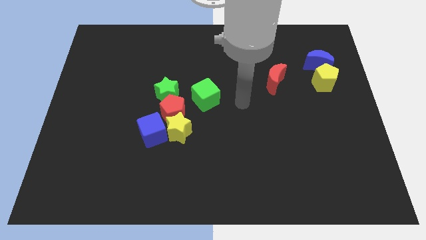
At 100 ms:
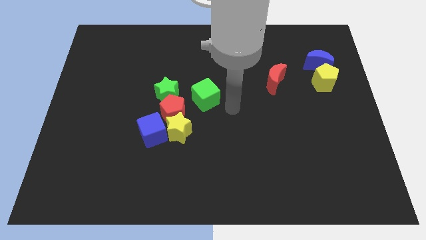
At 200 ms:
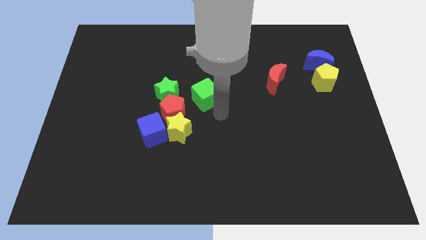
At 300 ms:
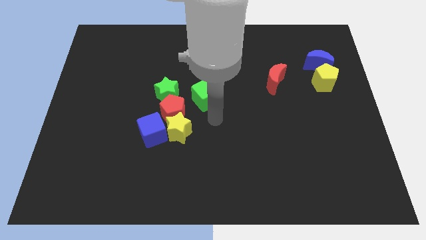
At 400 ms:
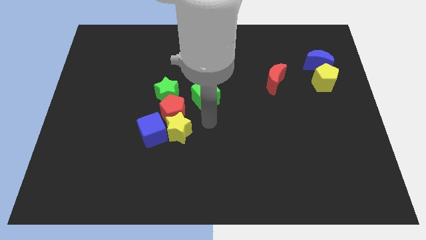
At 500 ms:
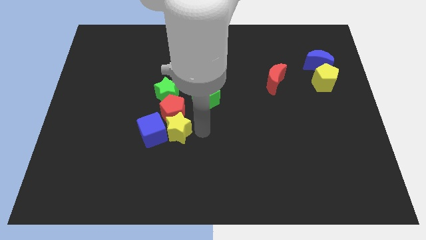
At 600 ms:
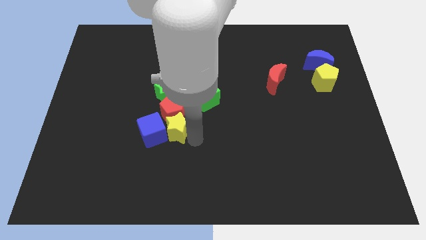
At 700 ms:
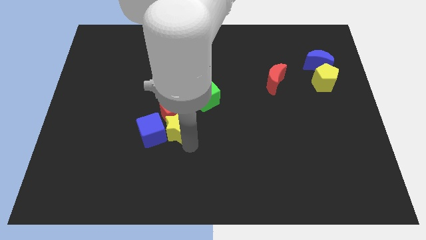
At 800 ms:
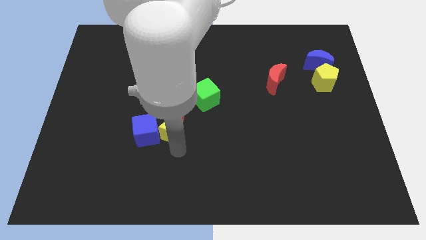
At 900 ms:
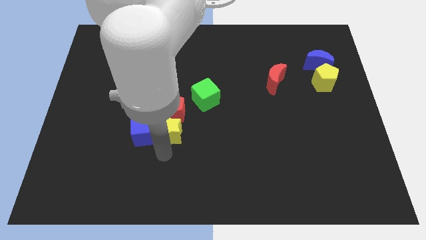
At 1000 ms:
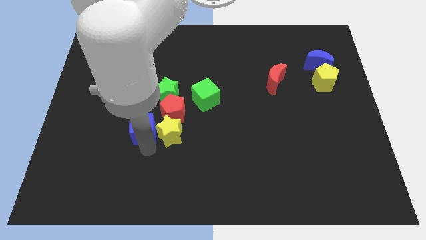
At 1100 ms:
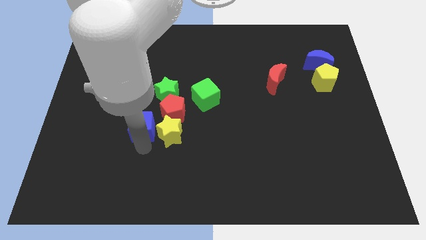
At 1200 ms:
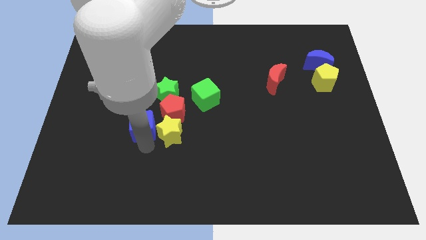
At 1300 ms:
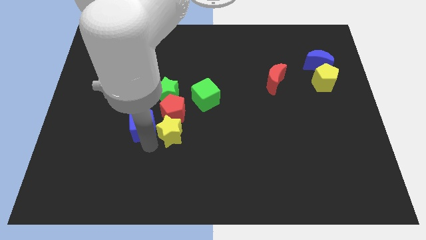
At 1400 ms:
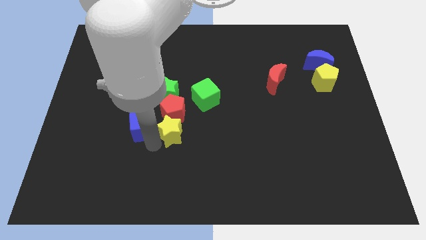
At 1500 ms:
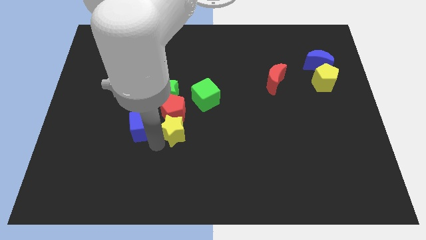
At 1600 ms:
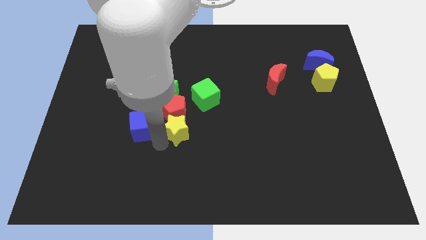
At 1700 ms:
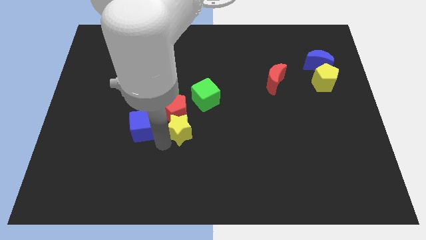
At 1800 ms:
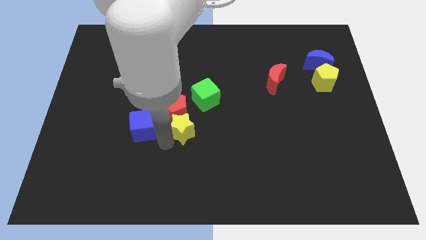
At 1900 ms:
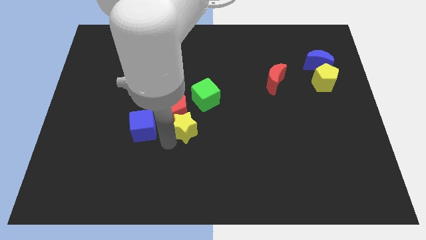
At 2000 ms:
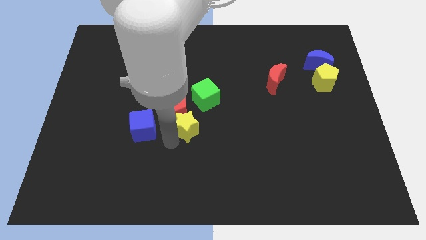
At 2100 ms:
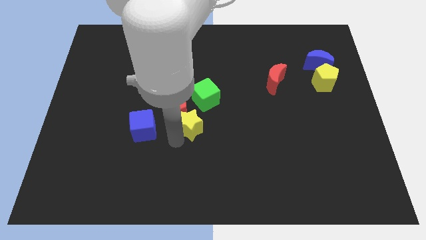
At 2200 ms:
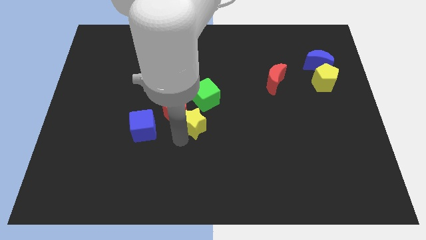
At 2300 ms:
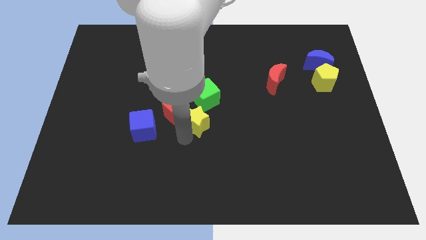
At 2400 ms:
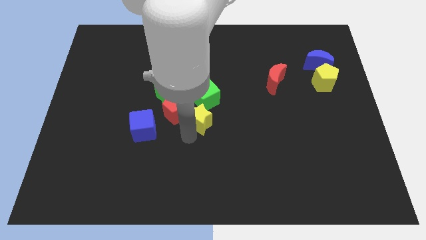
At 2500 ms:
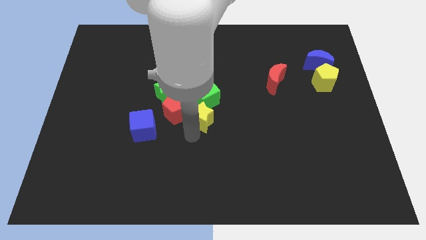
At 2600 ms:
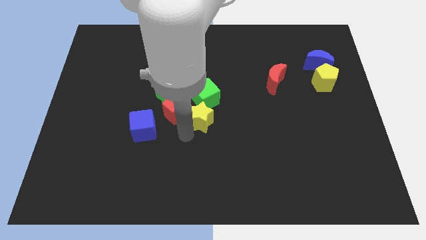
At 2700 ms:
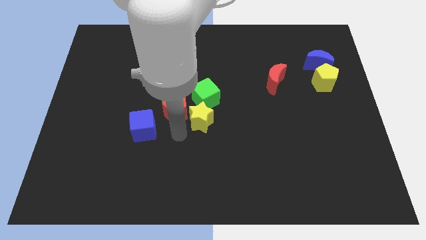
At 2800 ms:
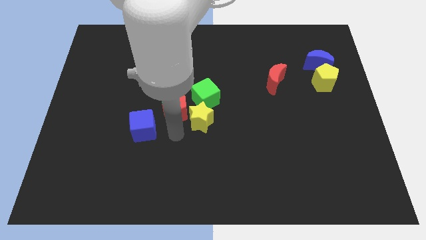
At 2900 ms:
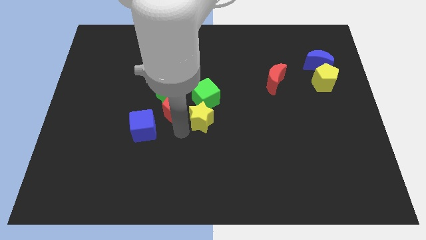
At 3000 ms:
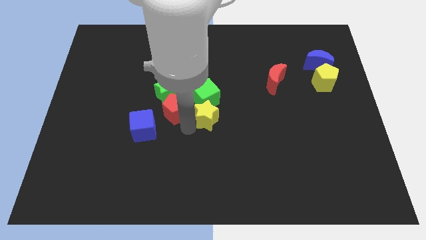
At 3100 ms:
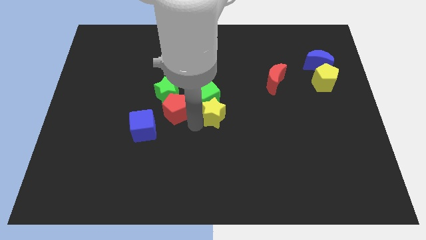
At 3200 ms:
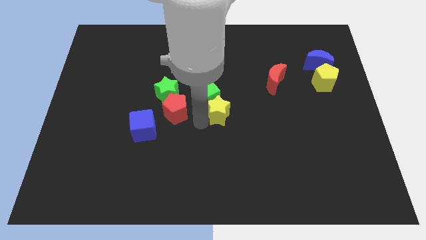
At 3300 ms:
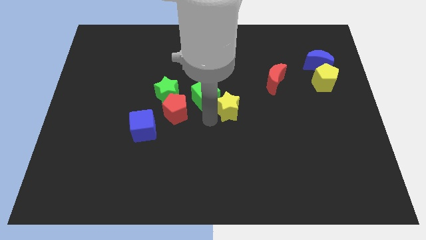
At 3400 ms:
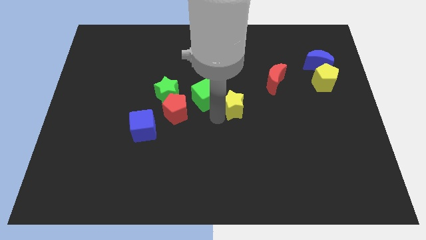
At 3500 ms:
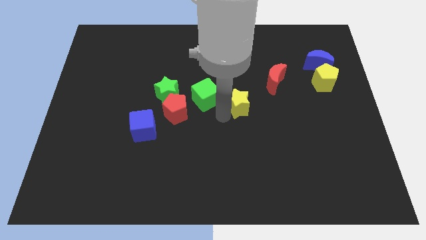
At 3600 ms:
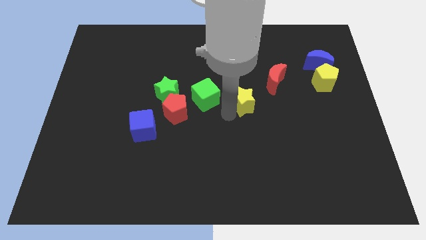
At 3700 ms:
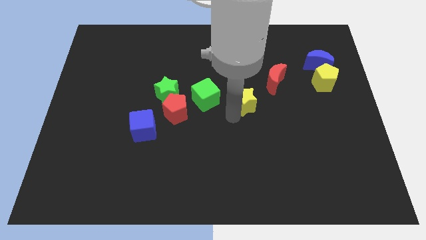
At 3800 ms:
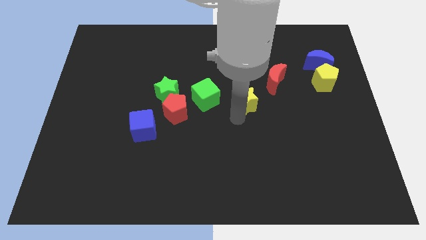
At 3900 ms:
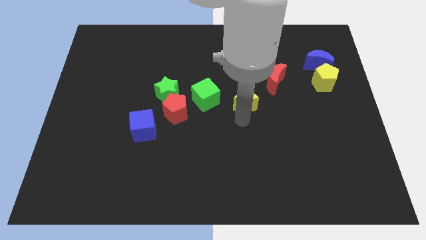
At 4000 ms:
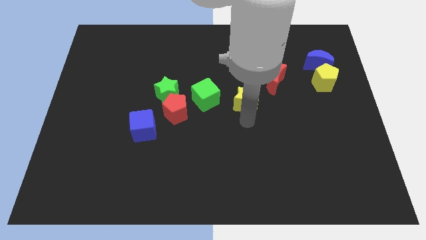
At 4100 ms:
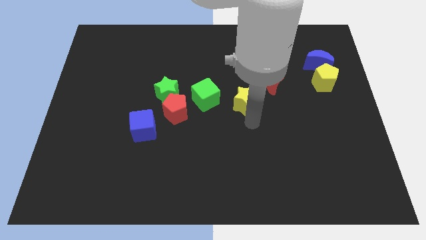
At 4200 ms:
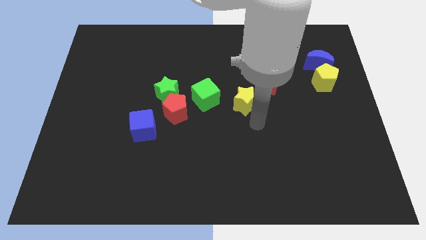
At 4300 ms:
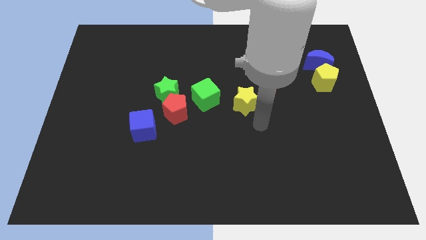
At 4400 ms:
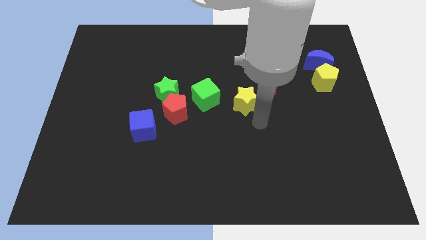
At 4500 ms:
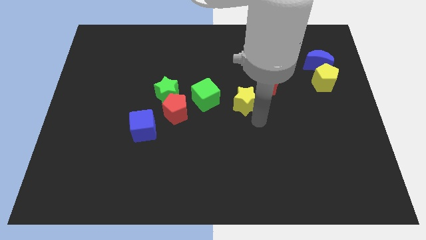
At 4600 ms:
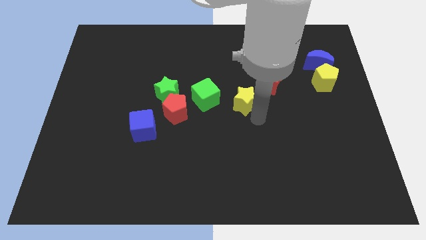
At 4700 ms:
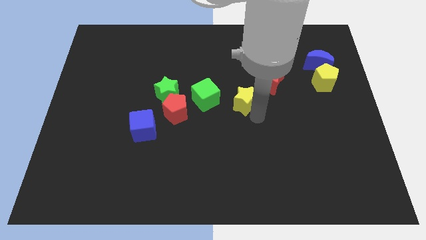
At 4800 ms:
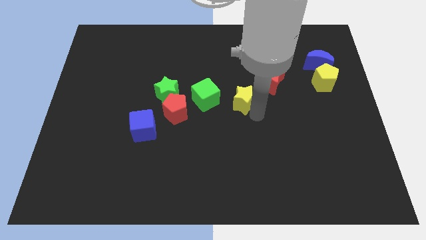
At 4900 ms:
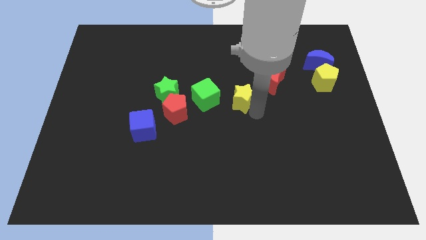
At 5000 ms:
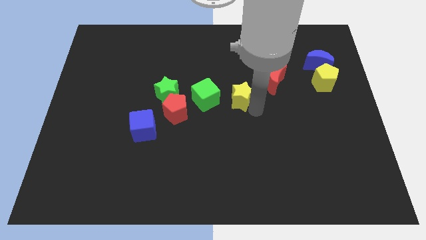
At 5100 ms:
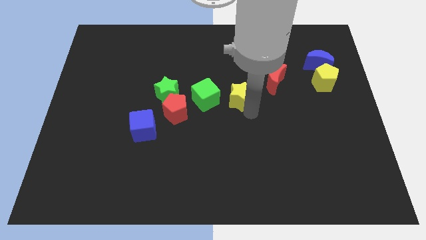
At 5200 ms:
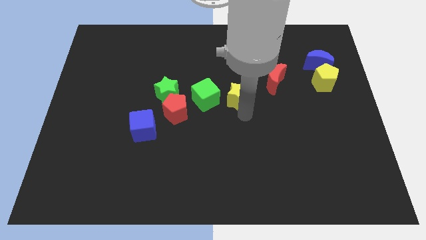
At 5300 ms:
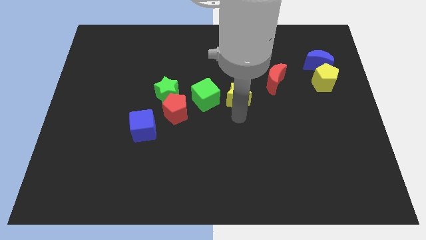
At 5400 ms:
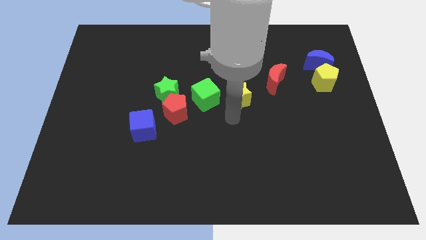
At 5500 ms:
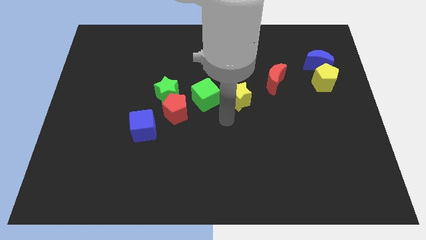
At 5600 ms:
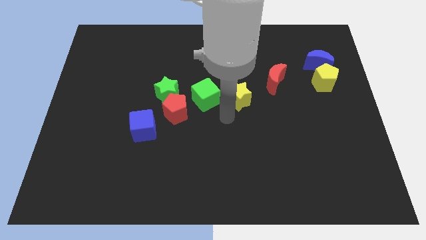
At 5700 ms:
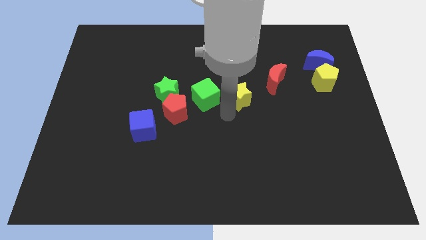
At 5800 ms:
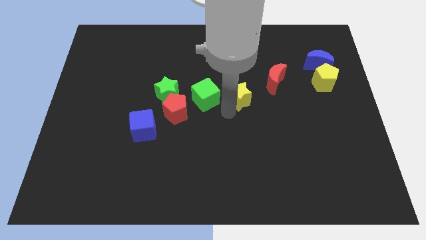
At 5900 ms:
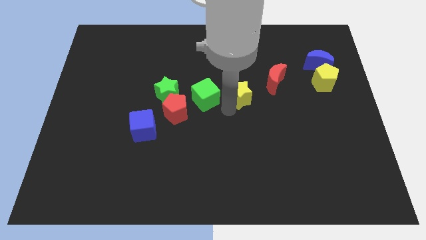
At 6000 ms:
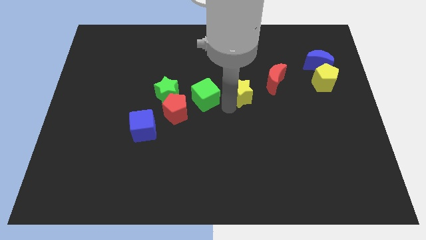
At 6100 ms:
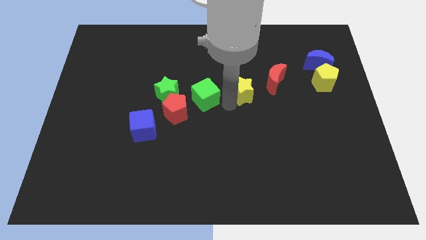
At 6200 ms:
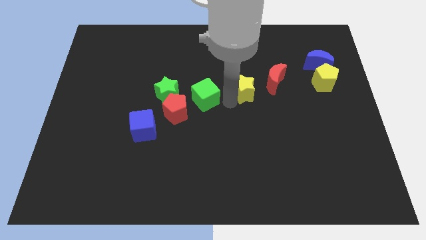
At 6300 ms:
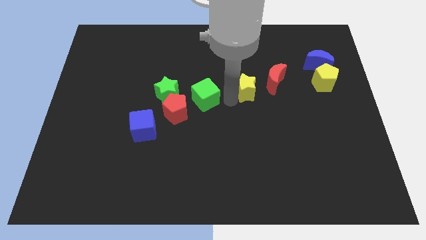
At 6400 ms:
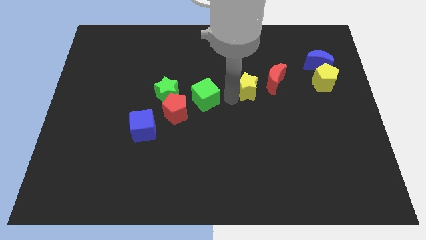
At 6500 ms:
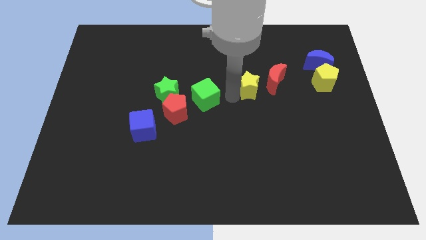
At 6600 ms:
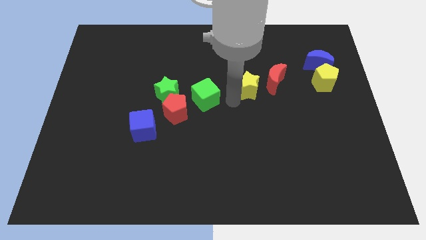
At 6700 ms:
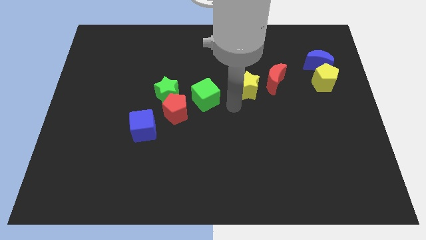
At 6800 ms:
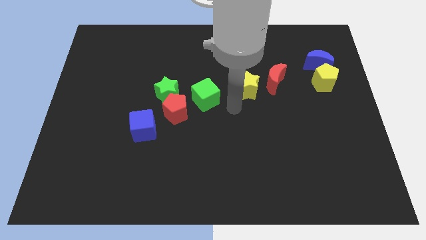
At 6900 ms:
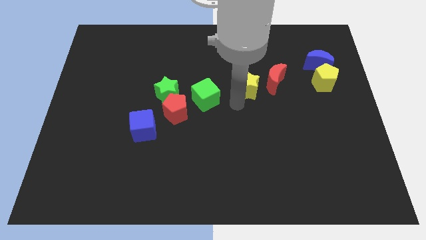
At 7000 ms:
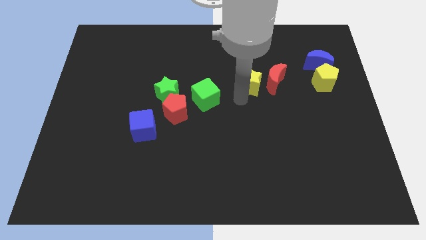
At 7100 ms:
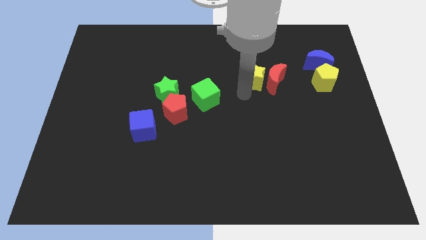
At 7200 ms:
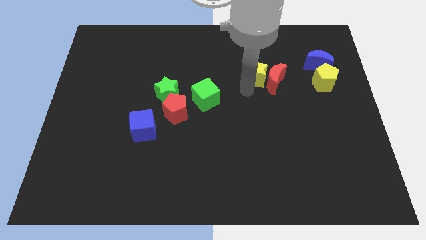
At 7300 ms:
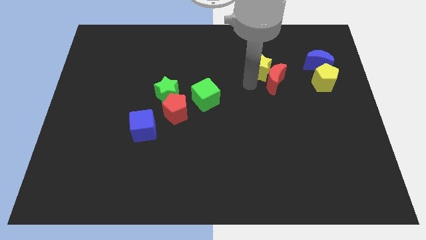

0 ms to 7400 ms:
move the yellow star to the left of the blue moon
